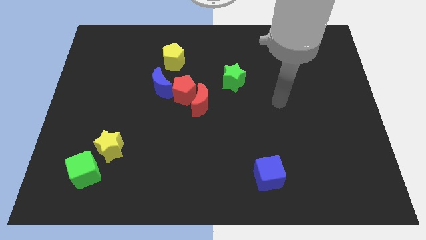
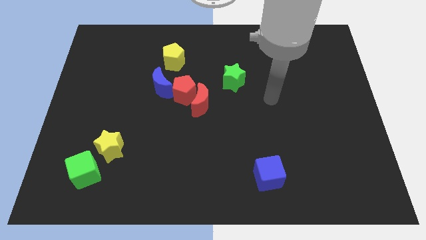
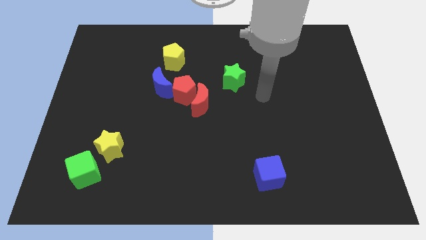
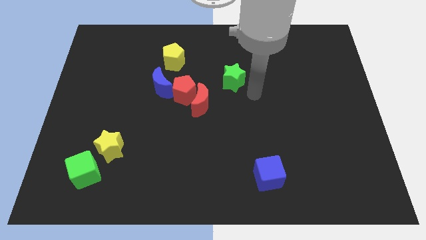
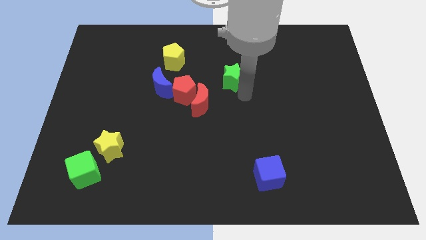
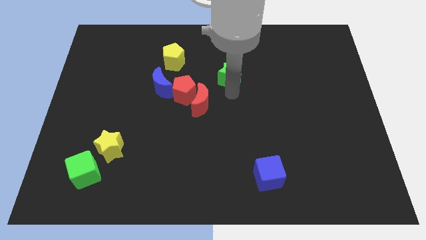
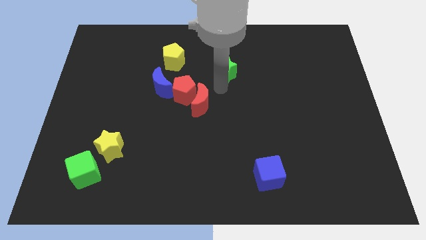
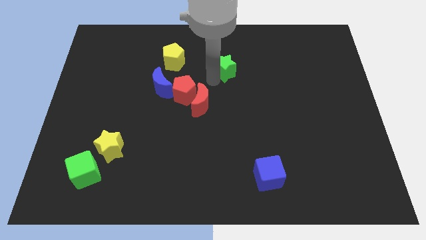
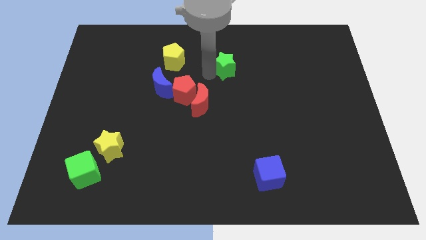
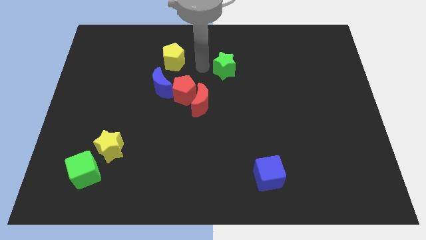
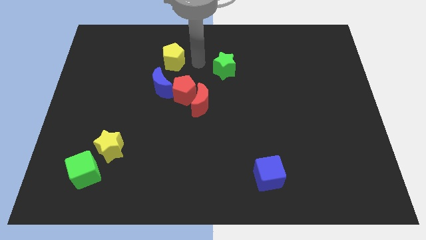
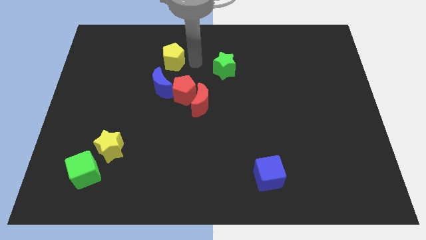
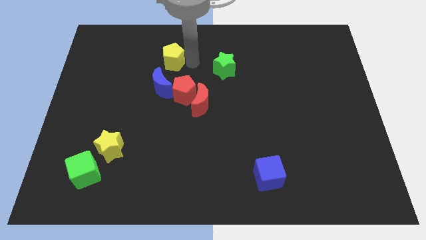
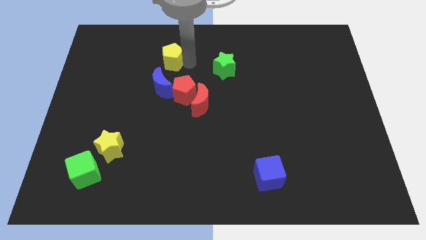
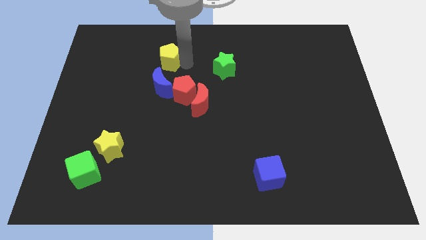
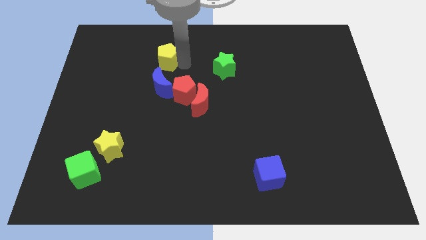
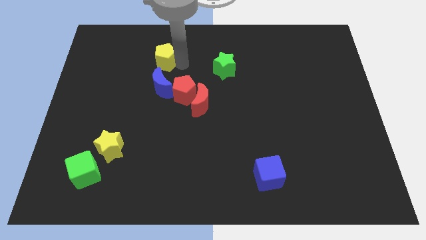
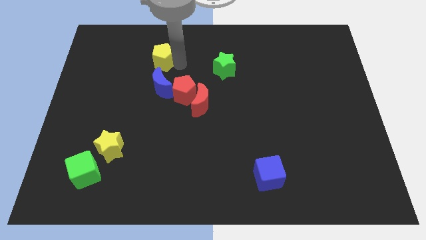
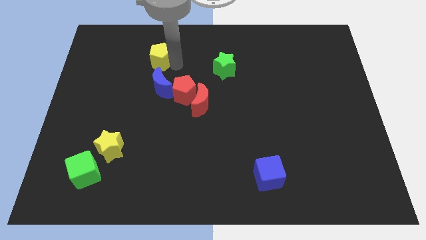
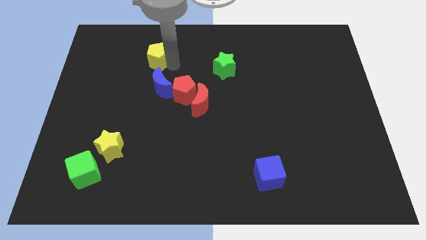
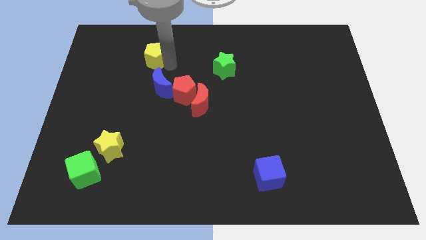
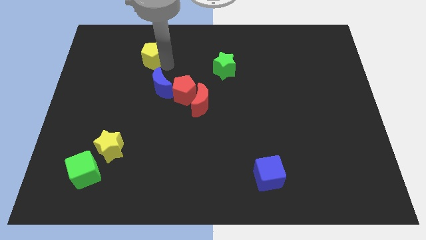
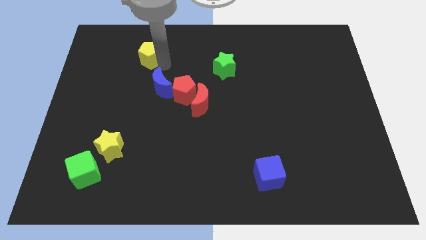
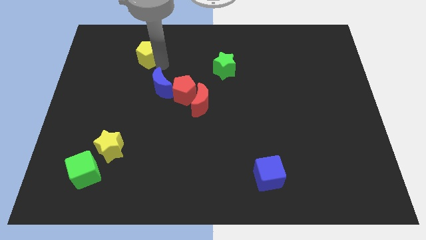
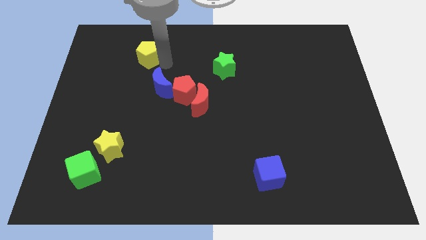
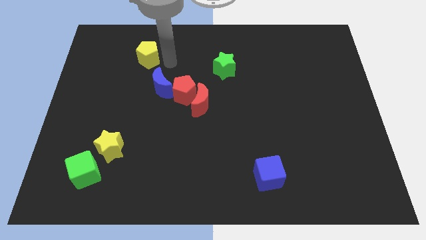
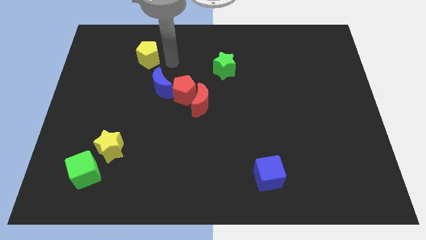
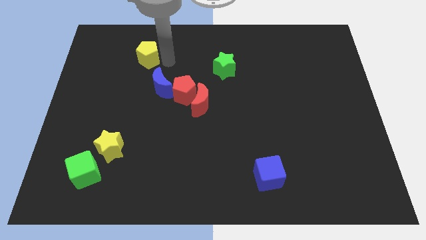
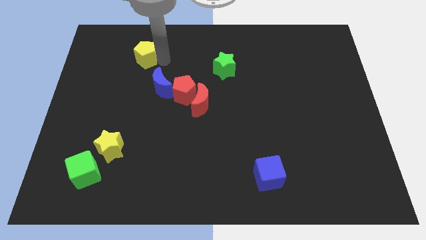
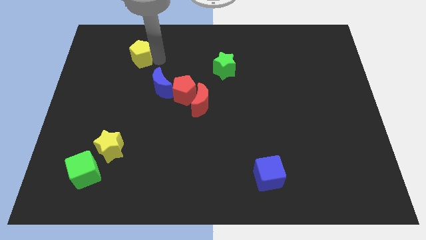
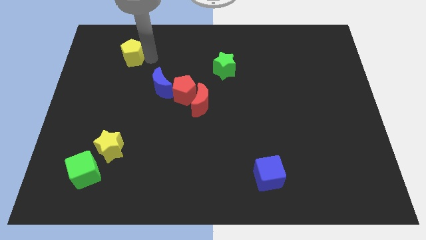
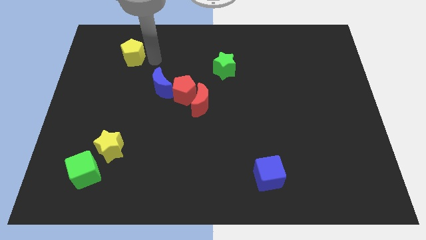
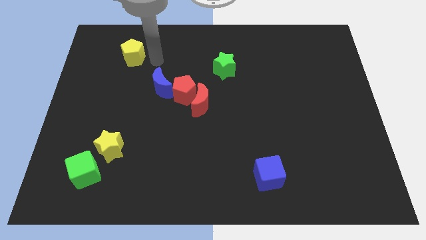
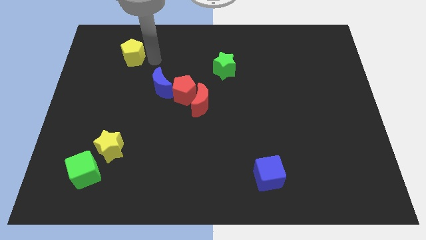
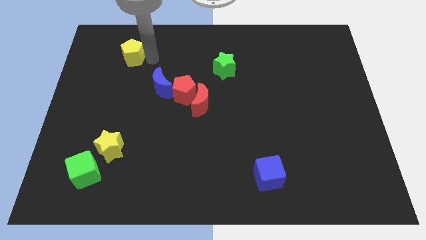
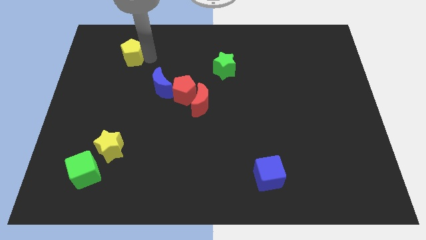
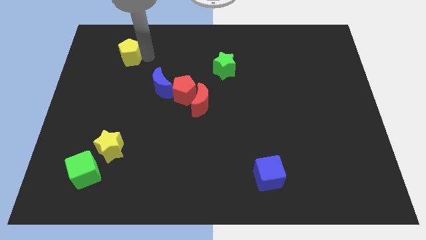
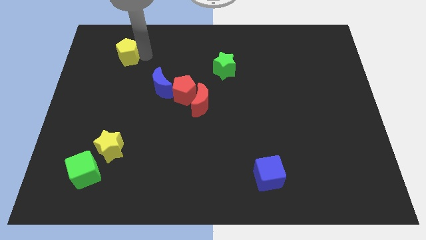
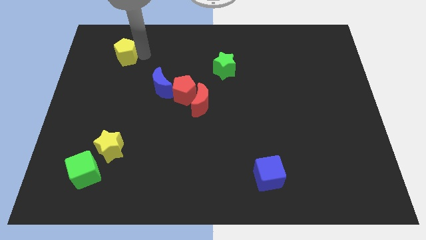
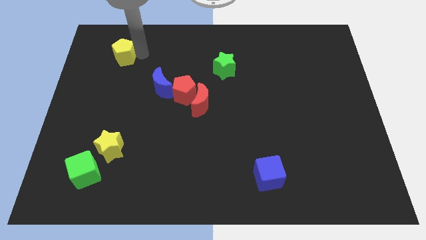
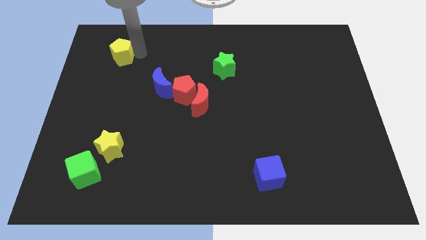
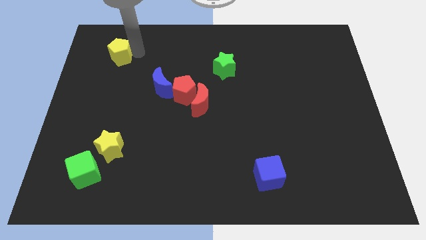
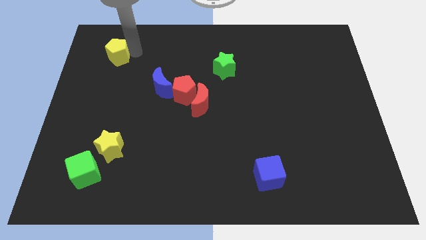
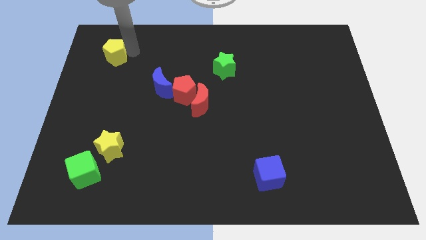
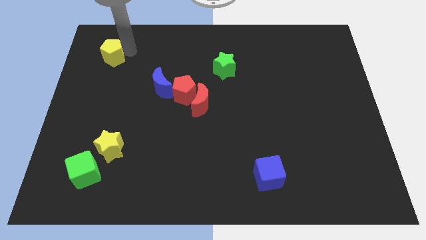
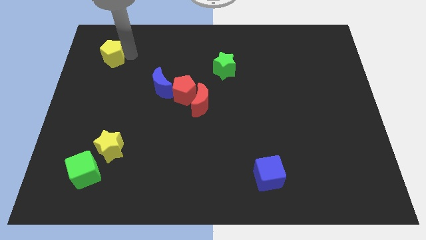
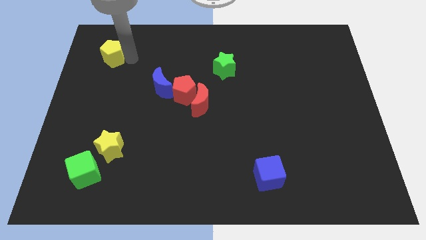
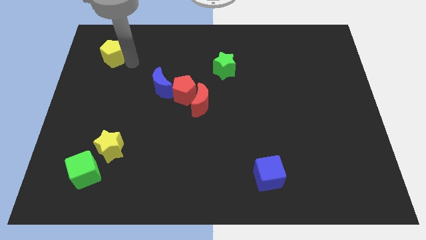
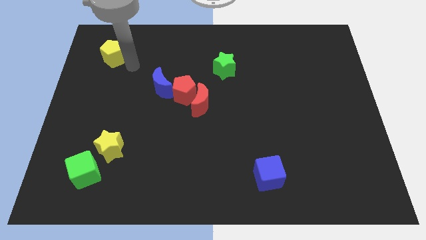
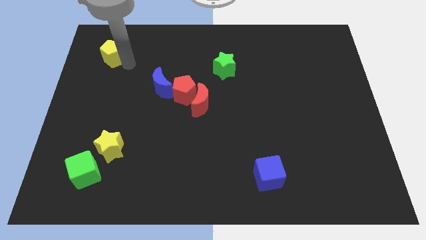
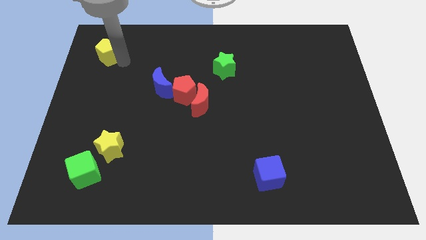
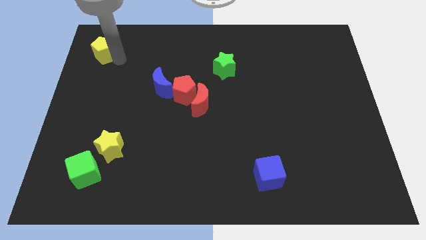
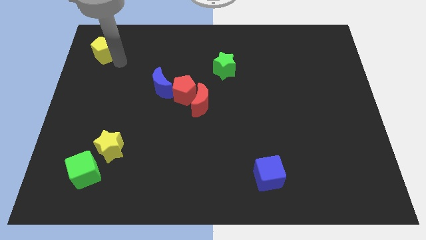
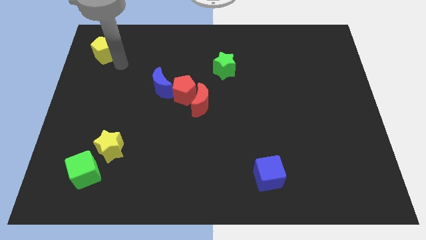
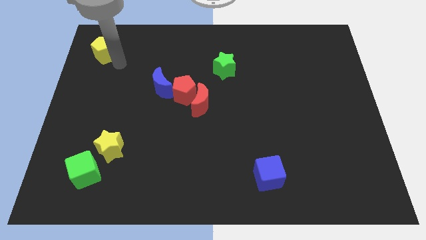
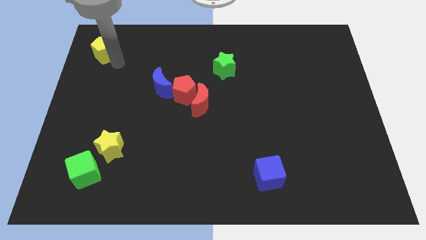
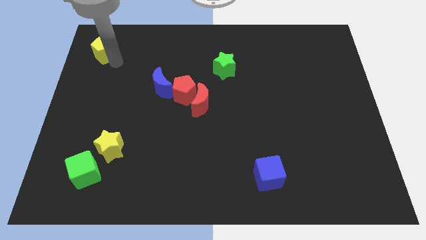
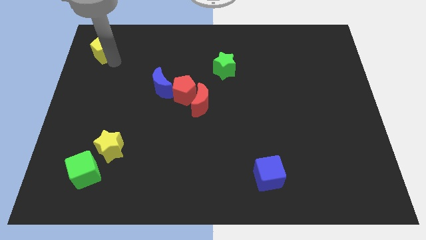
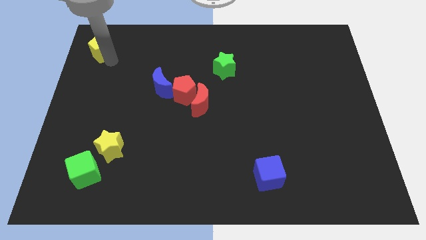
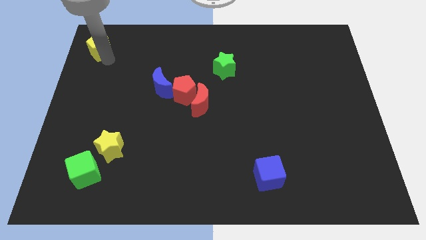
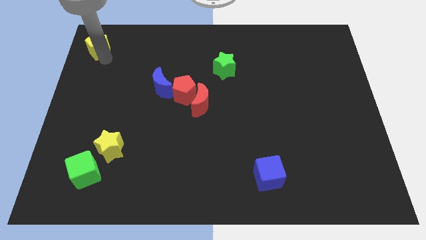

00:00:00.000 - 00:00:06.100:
move the yellow pentagon to the top left of the board

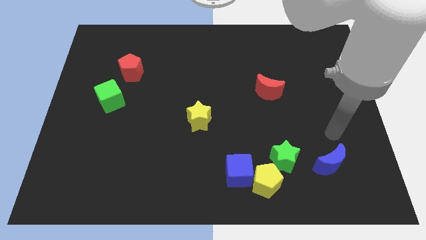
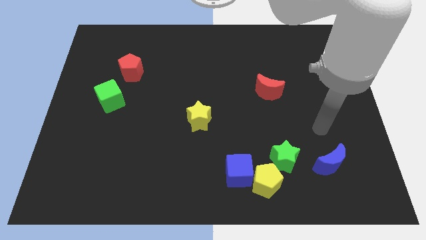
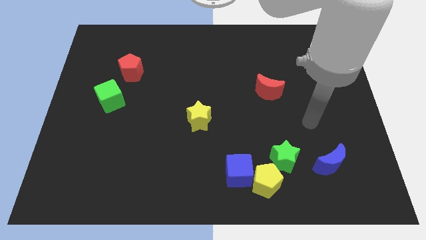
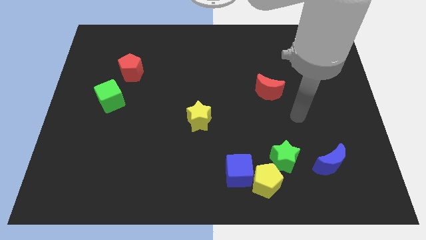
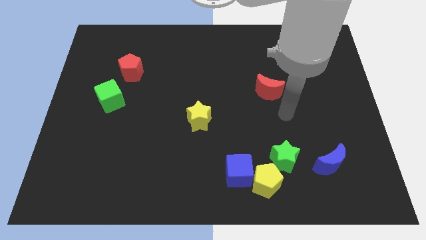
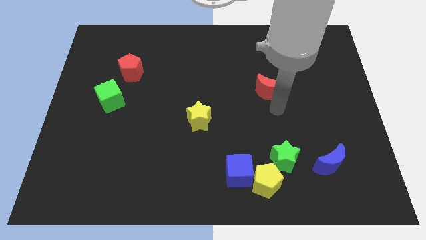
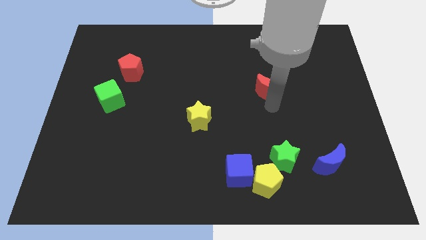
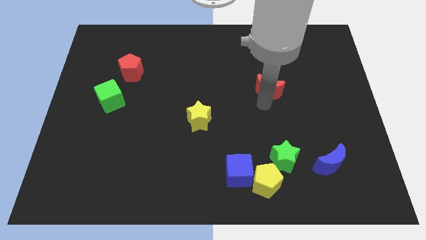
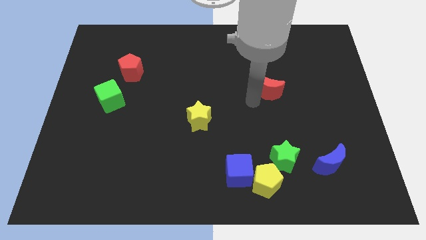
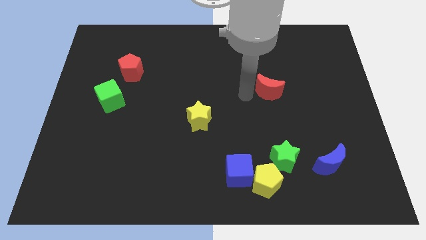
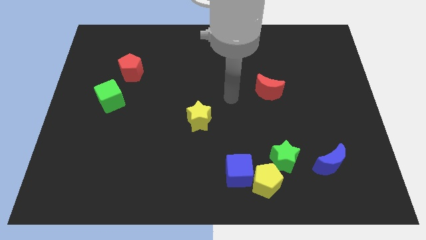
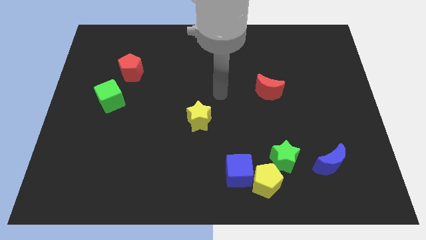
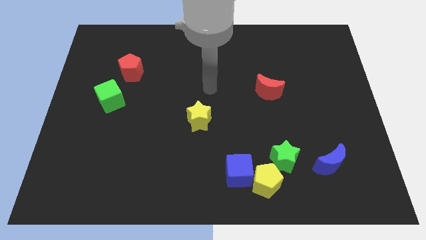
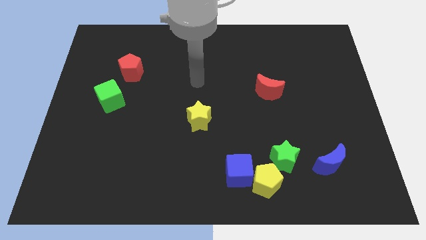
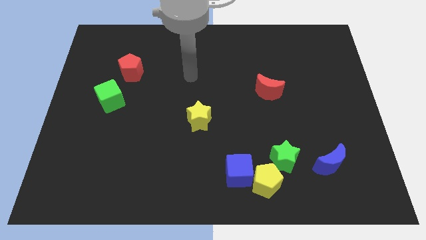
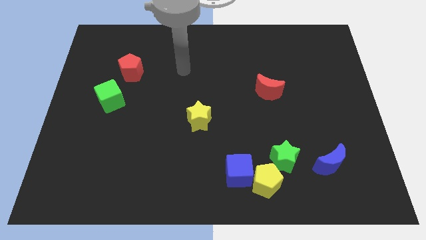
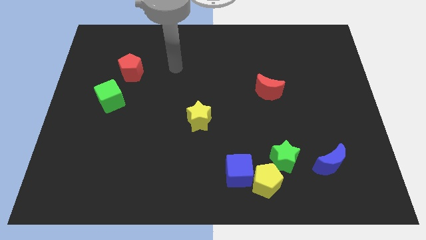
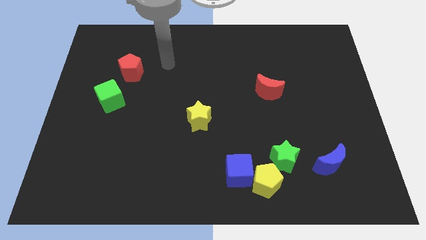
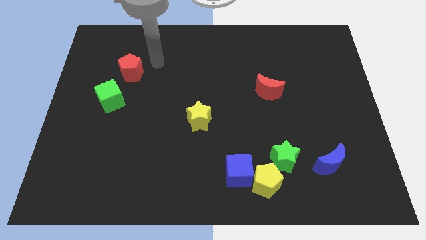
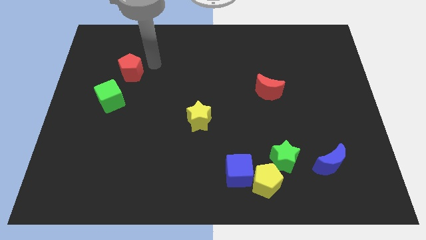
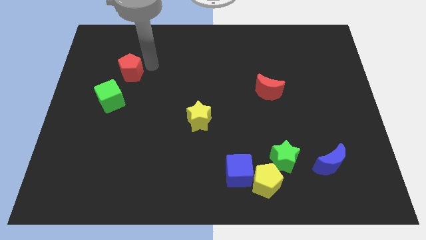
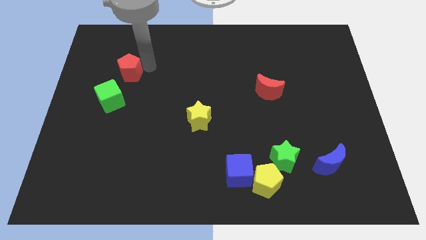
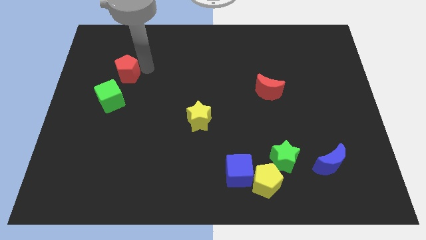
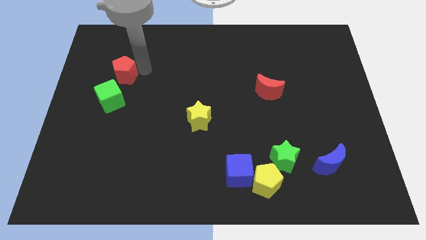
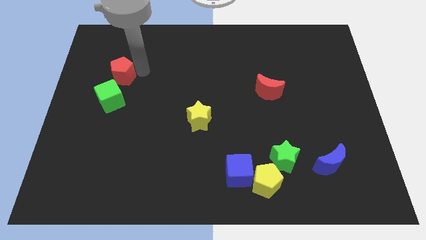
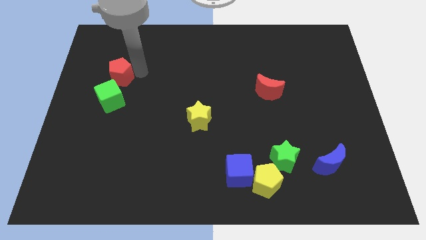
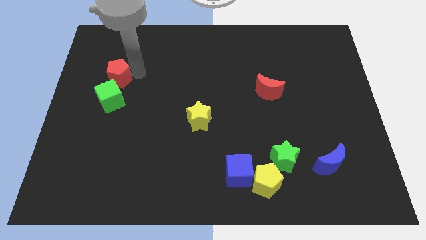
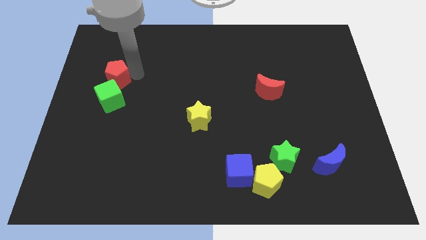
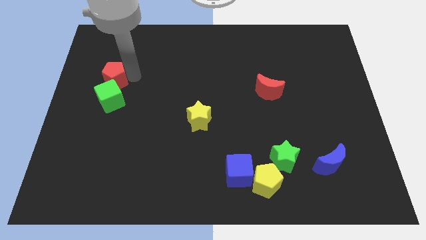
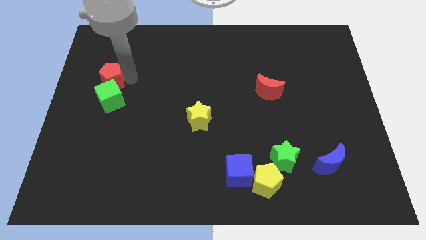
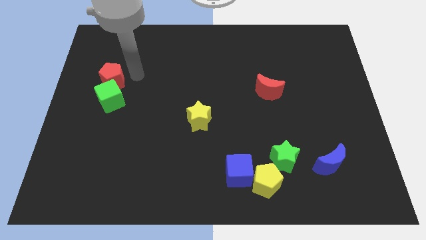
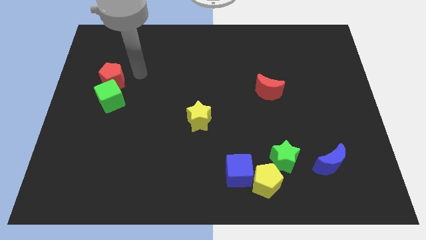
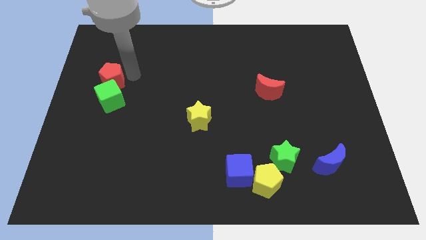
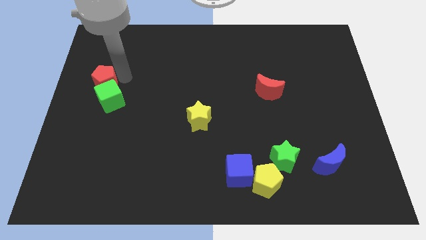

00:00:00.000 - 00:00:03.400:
push the red pentagon to the left side
